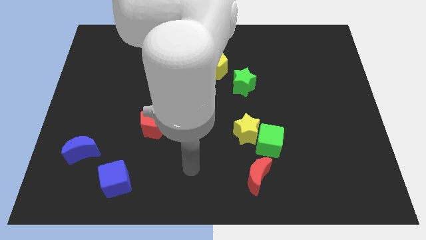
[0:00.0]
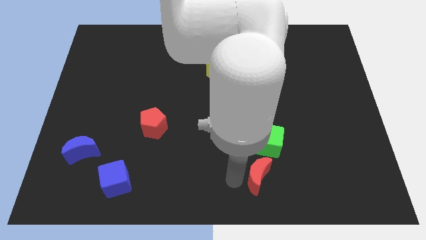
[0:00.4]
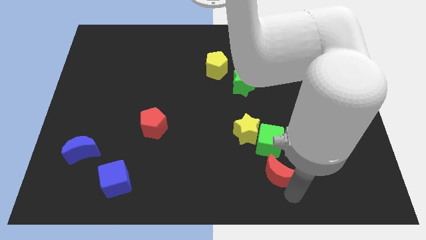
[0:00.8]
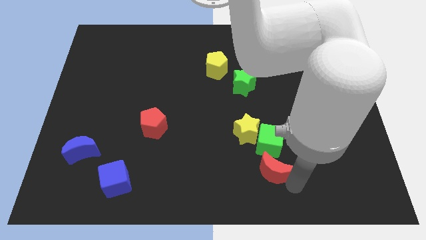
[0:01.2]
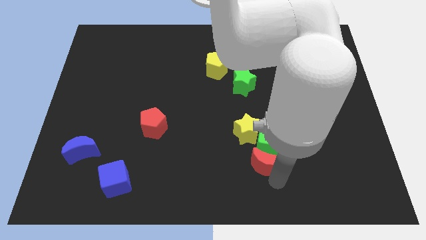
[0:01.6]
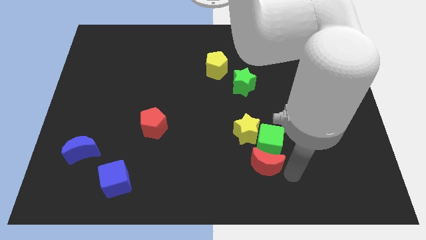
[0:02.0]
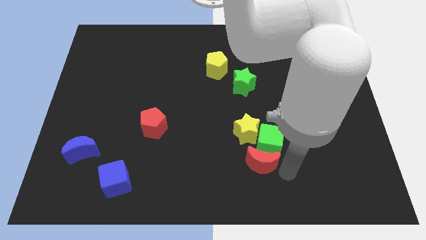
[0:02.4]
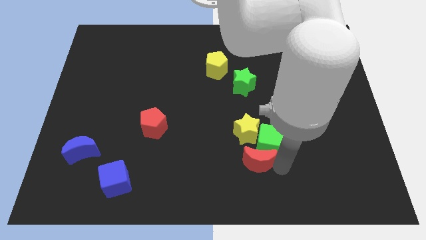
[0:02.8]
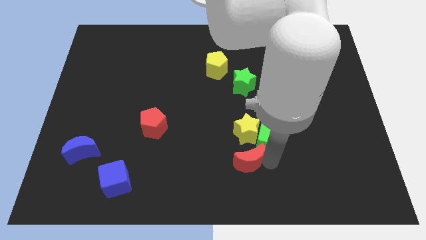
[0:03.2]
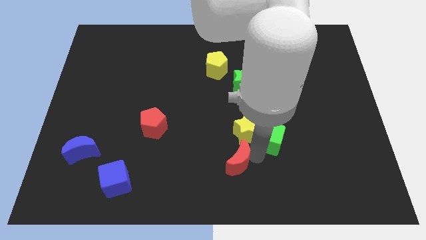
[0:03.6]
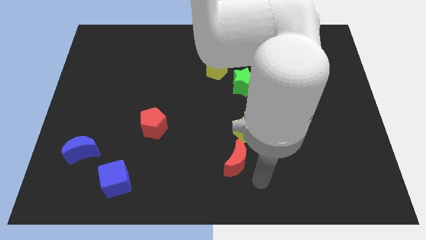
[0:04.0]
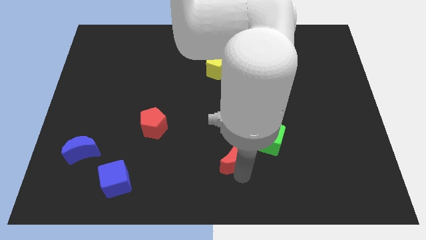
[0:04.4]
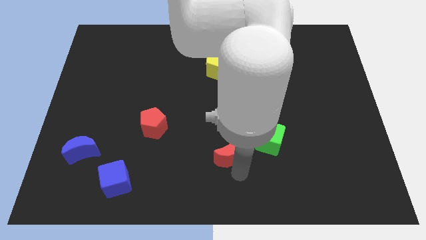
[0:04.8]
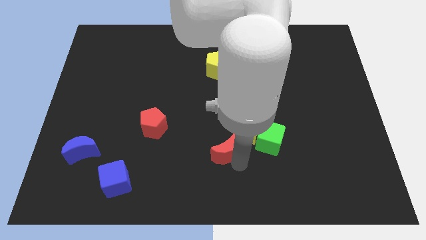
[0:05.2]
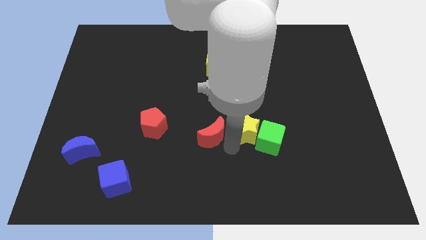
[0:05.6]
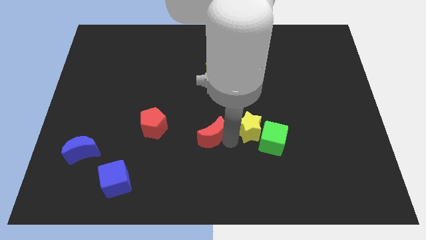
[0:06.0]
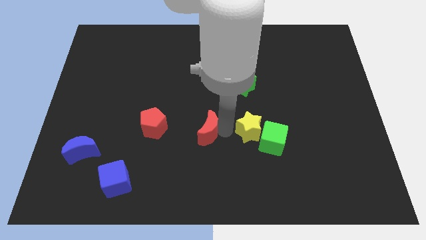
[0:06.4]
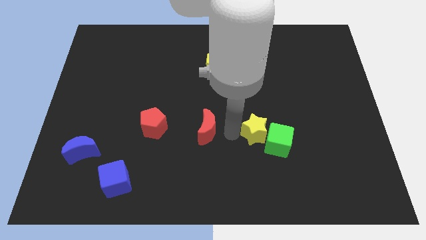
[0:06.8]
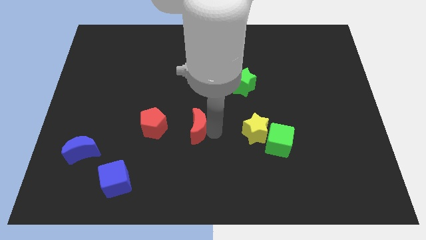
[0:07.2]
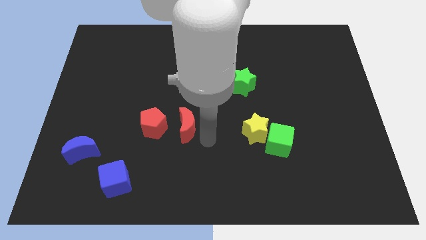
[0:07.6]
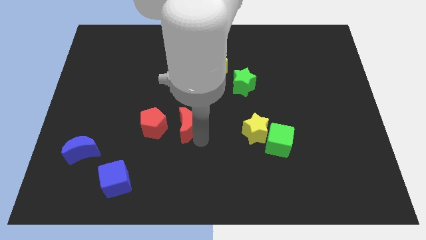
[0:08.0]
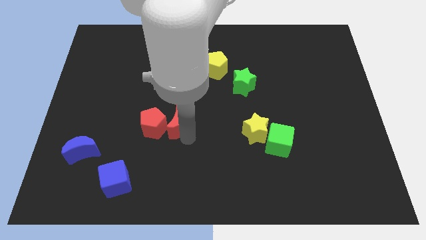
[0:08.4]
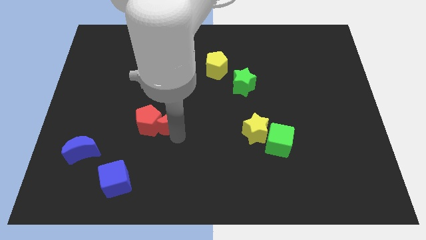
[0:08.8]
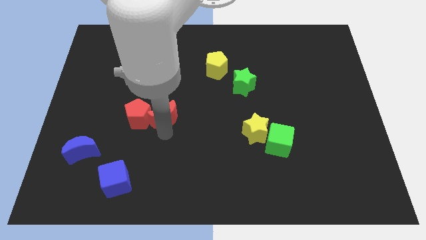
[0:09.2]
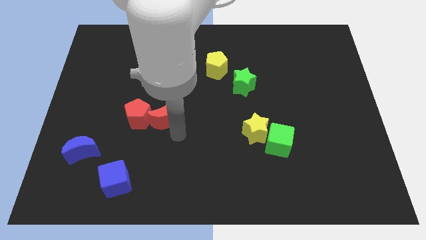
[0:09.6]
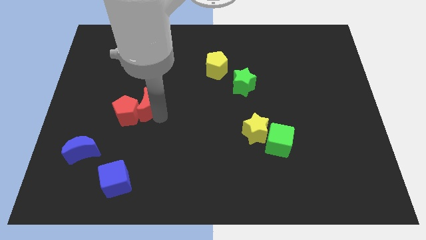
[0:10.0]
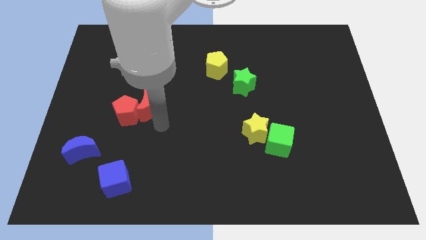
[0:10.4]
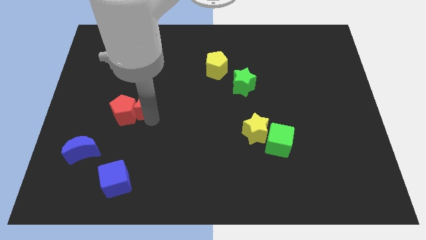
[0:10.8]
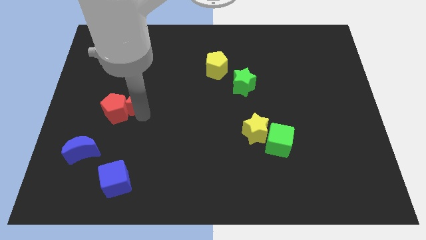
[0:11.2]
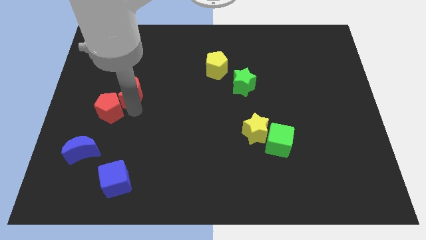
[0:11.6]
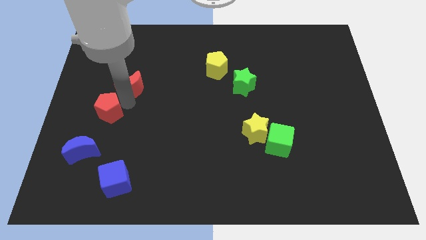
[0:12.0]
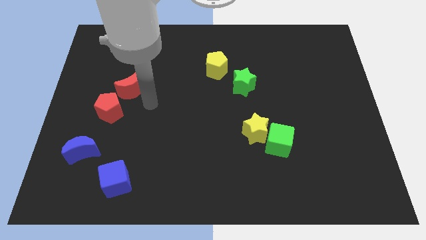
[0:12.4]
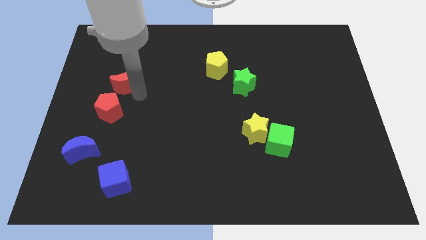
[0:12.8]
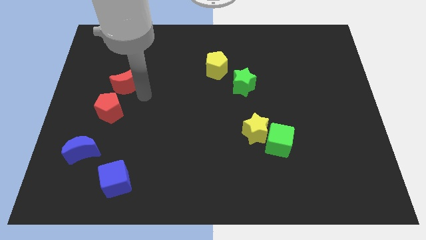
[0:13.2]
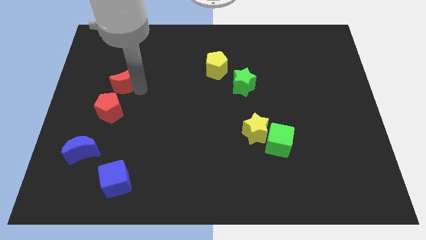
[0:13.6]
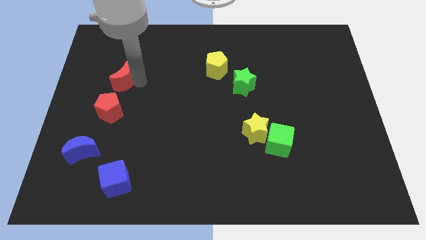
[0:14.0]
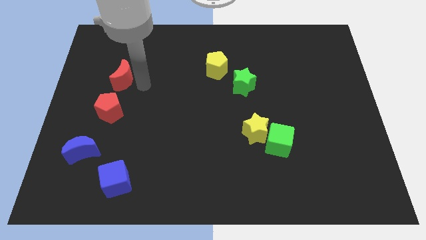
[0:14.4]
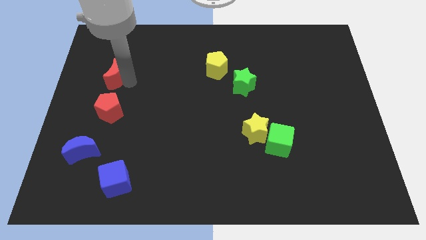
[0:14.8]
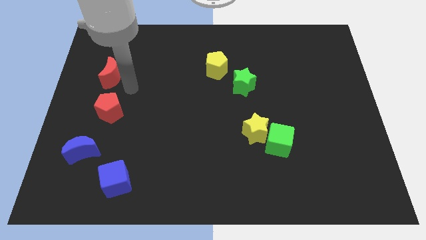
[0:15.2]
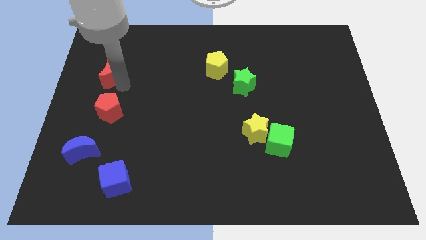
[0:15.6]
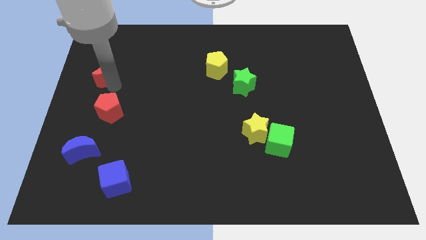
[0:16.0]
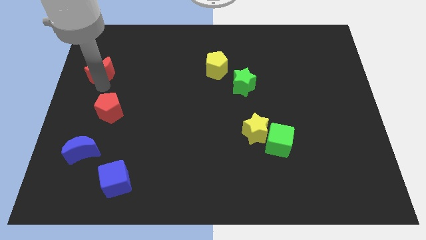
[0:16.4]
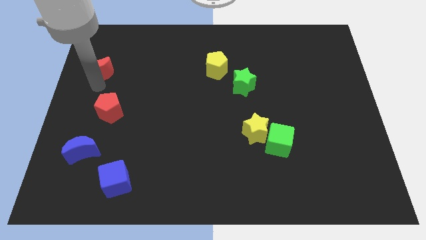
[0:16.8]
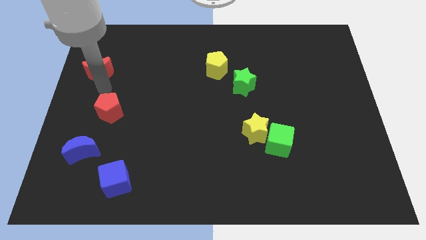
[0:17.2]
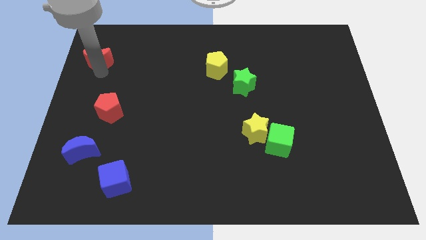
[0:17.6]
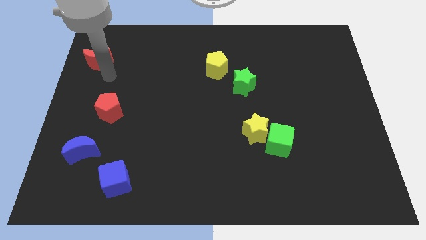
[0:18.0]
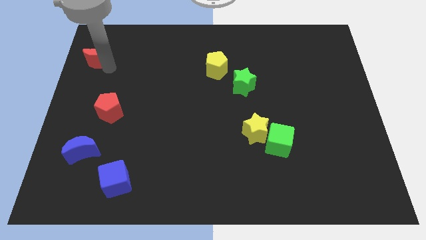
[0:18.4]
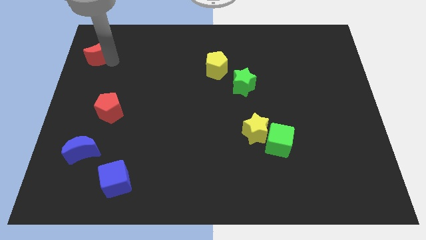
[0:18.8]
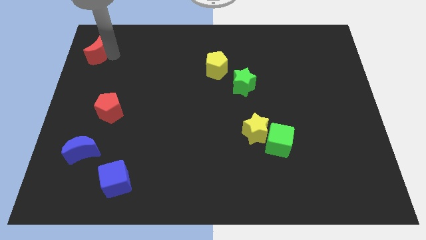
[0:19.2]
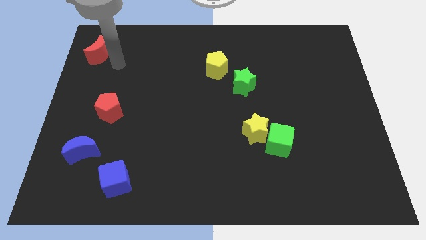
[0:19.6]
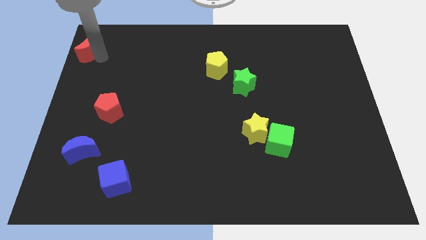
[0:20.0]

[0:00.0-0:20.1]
put the red moon to the top left of the board

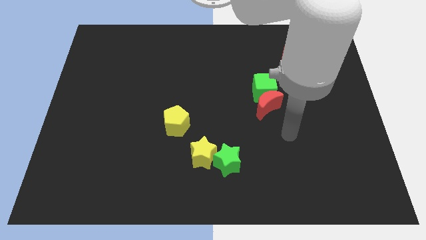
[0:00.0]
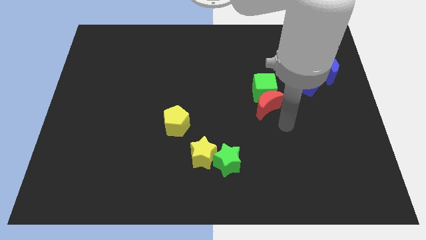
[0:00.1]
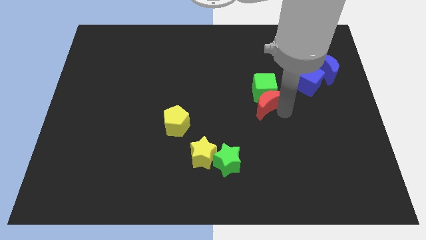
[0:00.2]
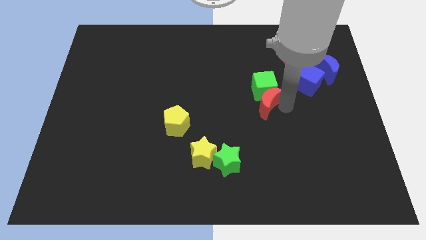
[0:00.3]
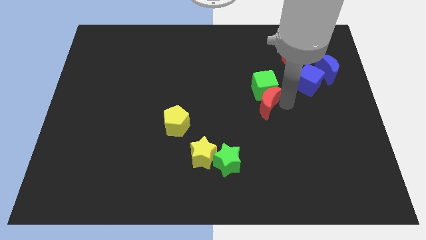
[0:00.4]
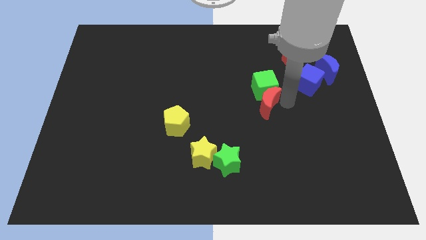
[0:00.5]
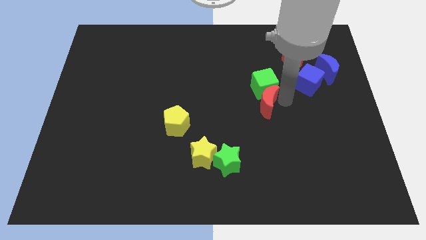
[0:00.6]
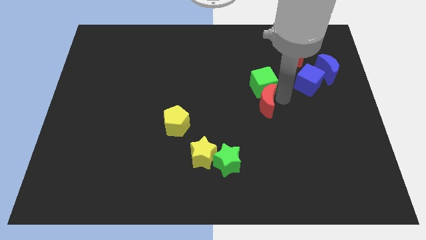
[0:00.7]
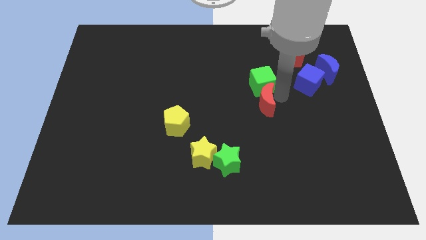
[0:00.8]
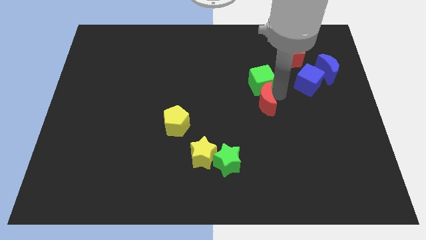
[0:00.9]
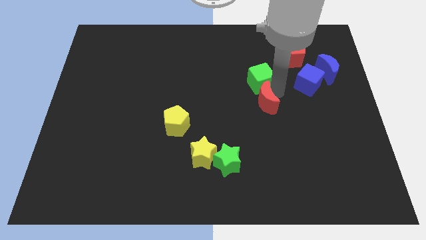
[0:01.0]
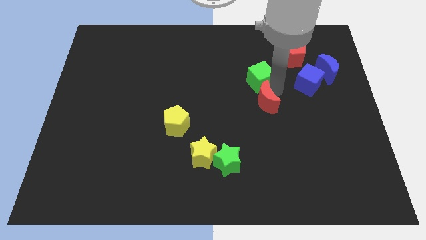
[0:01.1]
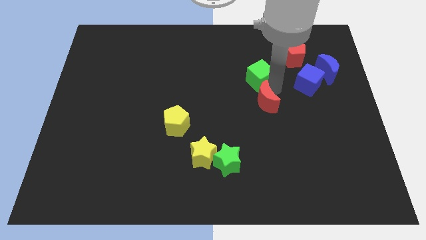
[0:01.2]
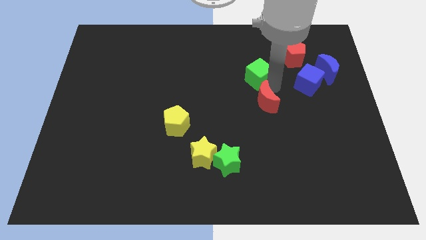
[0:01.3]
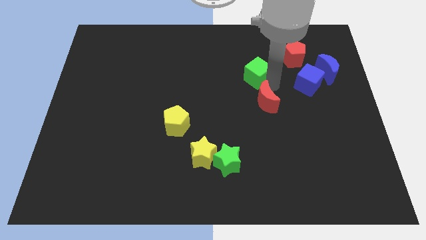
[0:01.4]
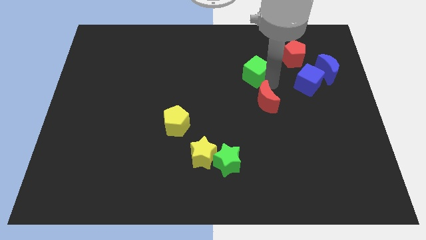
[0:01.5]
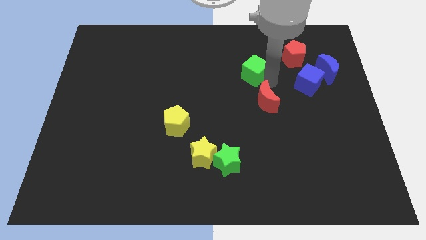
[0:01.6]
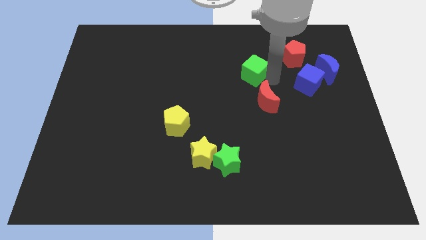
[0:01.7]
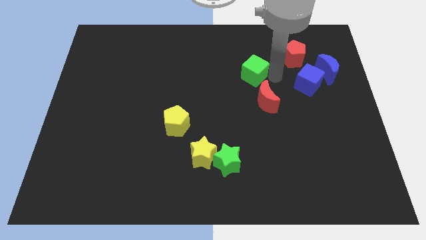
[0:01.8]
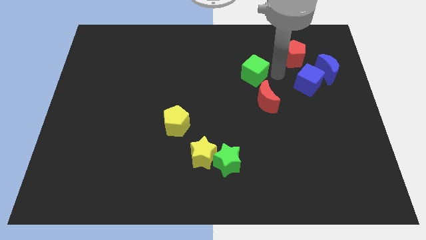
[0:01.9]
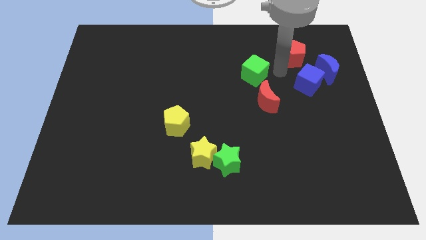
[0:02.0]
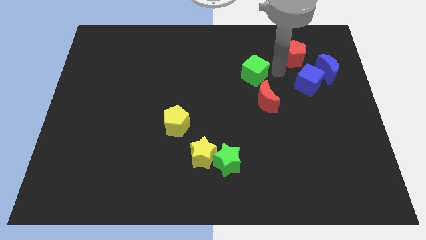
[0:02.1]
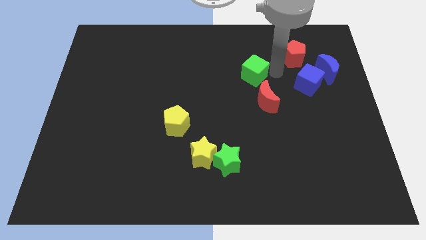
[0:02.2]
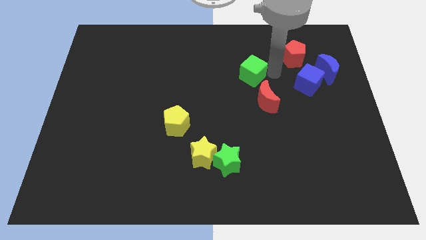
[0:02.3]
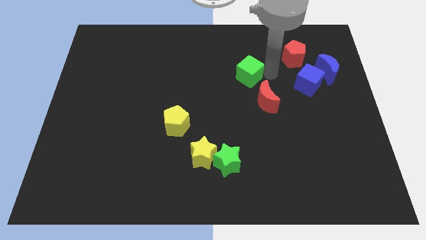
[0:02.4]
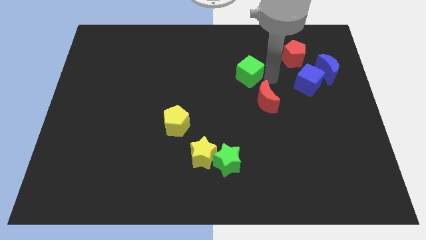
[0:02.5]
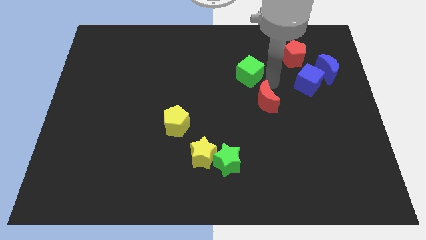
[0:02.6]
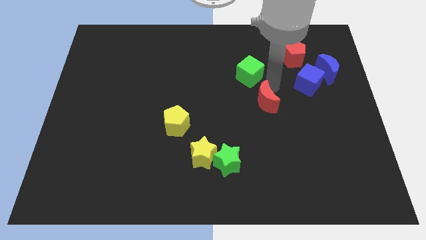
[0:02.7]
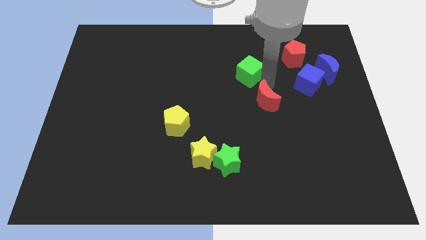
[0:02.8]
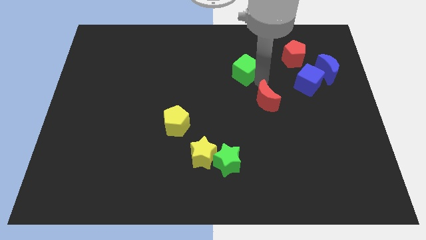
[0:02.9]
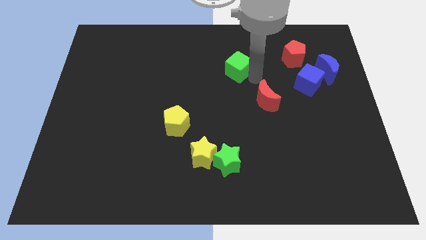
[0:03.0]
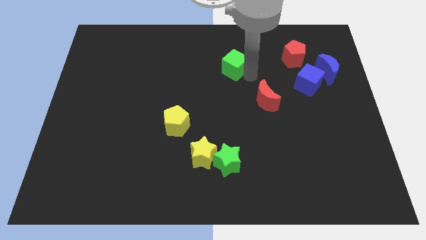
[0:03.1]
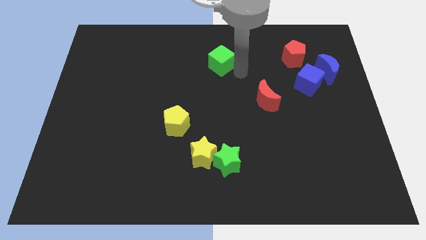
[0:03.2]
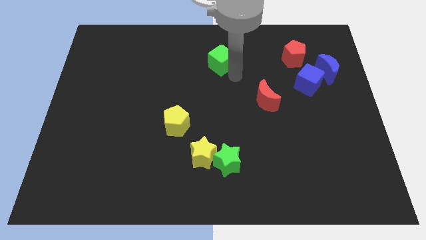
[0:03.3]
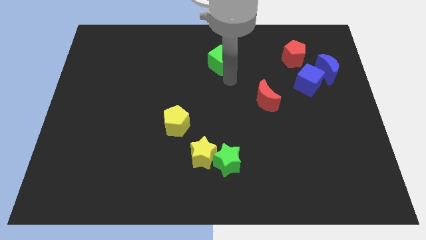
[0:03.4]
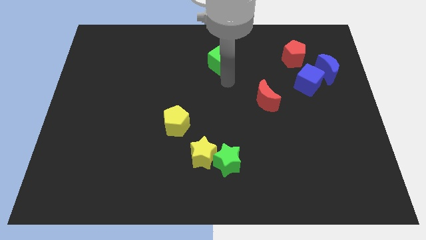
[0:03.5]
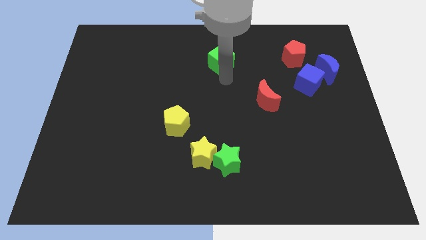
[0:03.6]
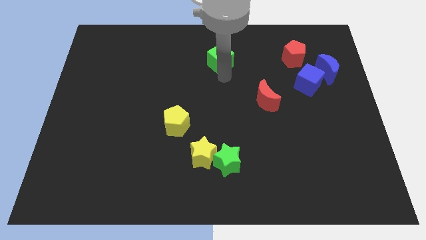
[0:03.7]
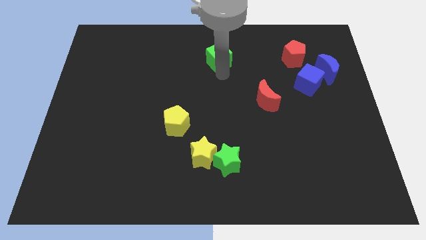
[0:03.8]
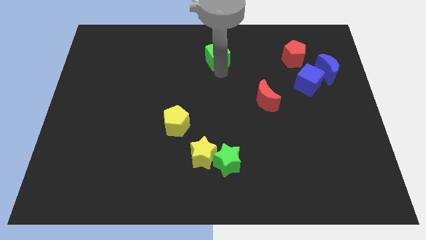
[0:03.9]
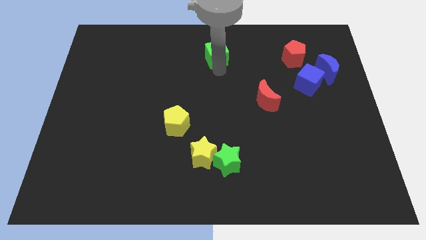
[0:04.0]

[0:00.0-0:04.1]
slide the green cube to the top side
